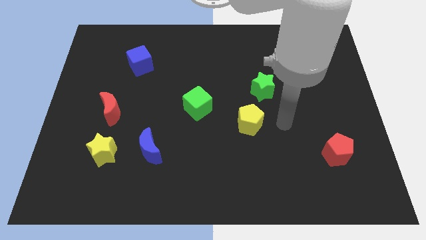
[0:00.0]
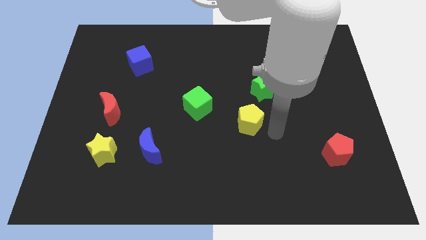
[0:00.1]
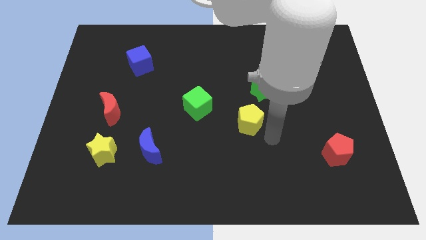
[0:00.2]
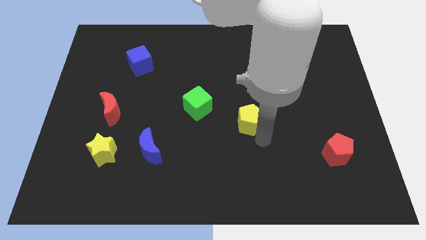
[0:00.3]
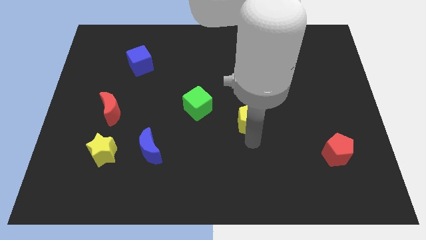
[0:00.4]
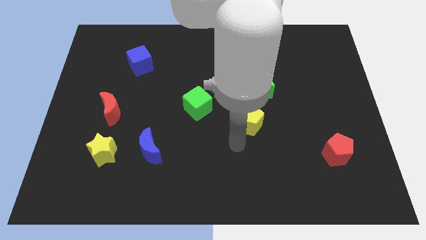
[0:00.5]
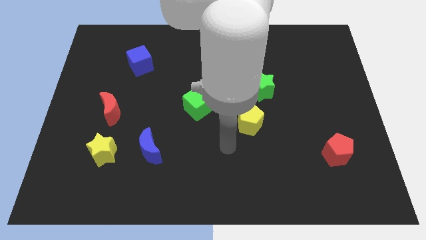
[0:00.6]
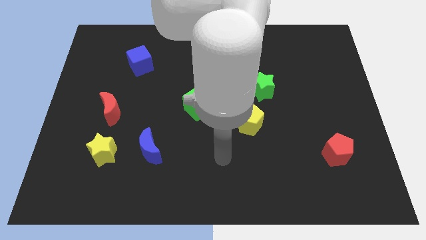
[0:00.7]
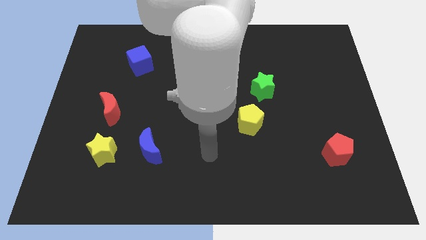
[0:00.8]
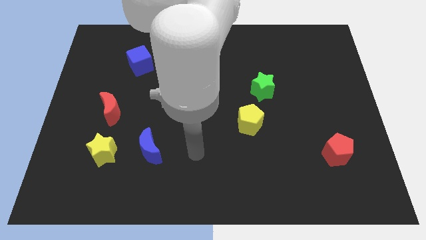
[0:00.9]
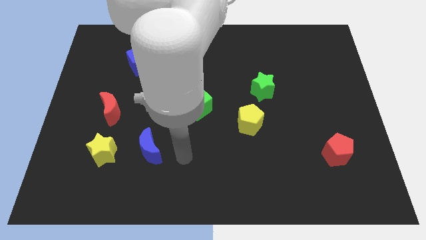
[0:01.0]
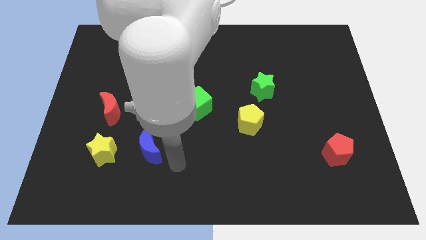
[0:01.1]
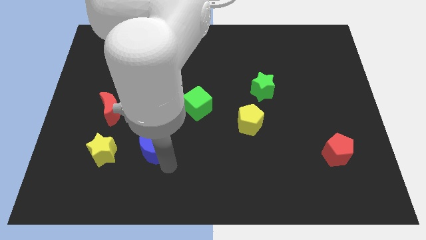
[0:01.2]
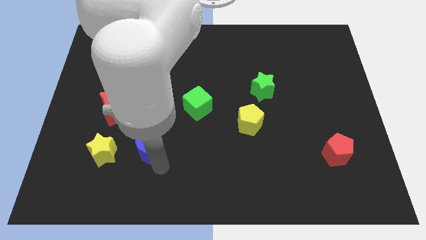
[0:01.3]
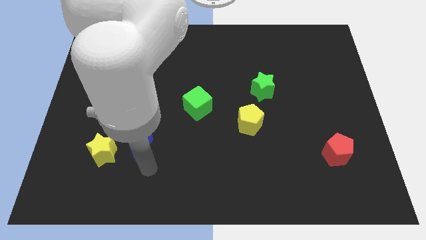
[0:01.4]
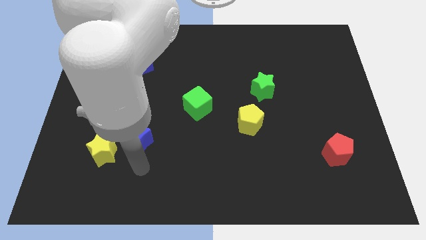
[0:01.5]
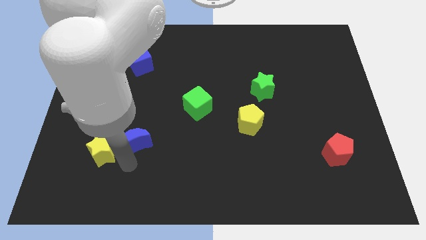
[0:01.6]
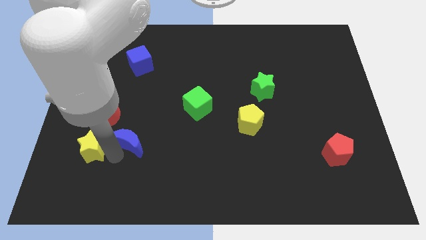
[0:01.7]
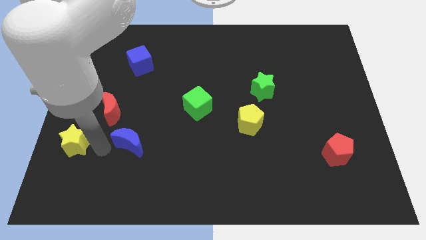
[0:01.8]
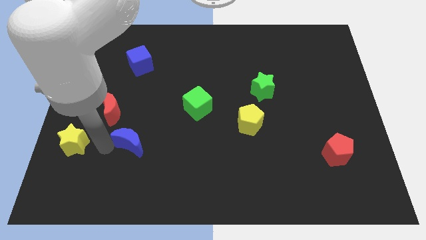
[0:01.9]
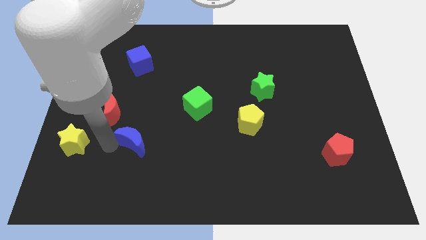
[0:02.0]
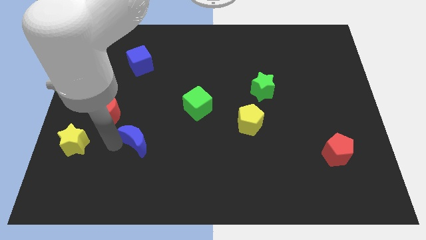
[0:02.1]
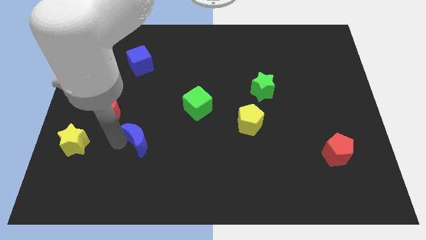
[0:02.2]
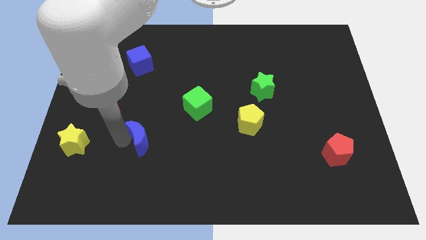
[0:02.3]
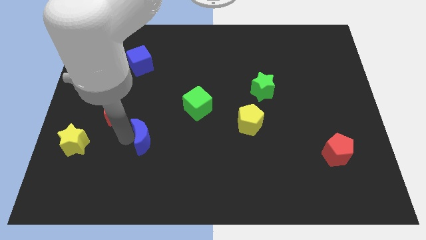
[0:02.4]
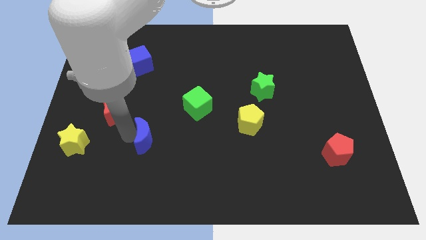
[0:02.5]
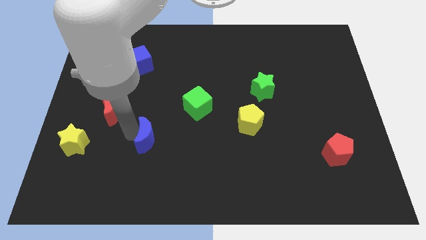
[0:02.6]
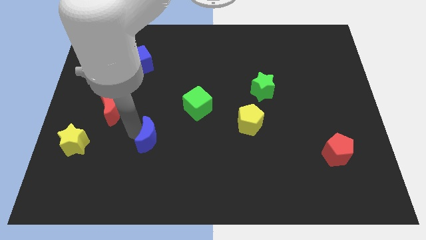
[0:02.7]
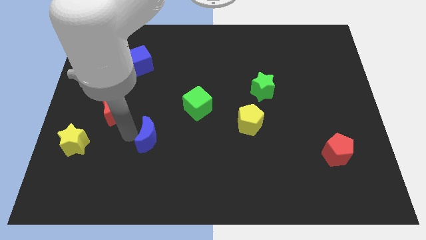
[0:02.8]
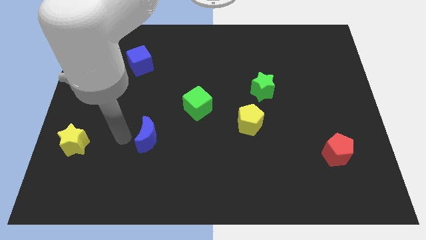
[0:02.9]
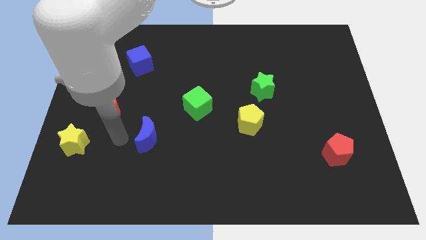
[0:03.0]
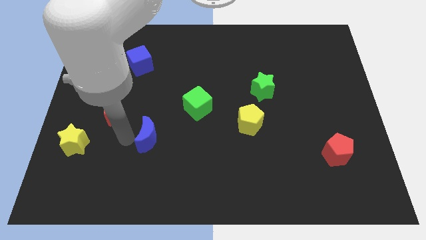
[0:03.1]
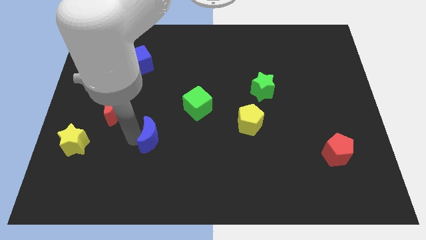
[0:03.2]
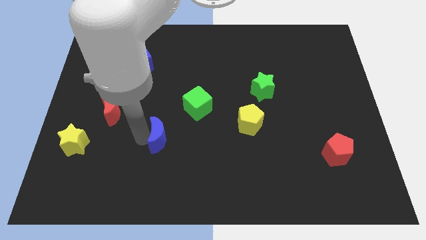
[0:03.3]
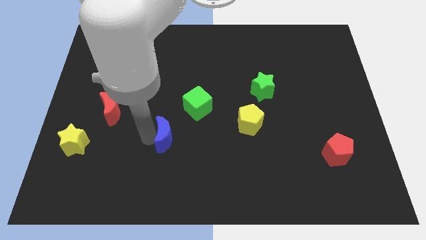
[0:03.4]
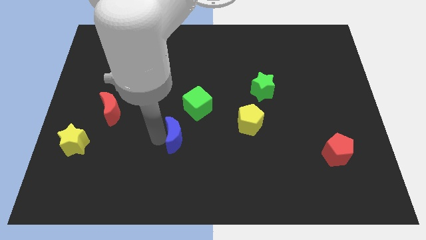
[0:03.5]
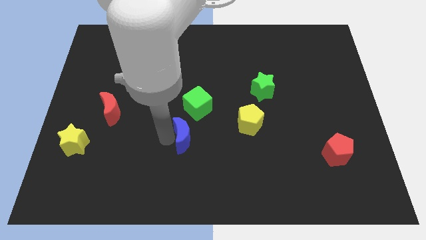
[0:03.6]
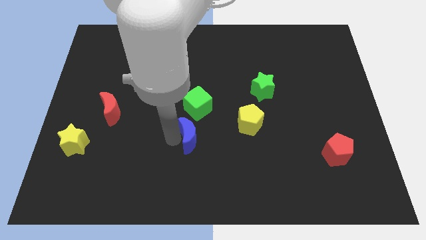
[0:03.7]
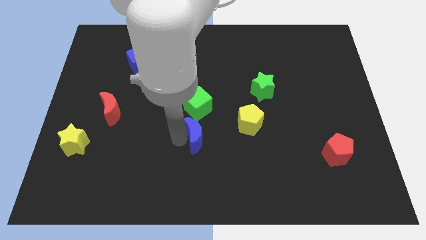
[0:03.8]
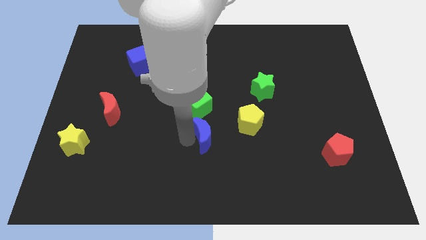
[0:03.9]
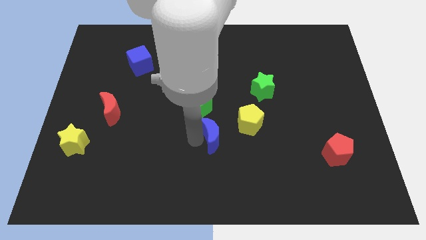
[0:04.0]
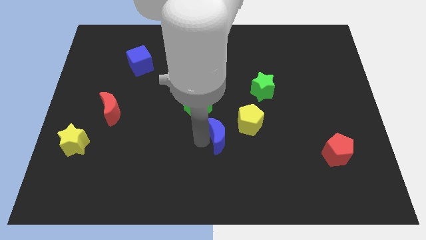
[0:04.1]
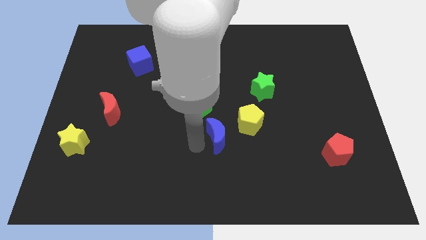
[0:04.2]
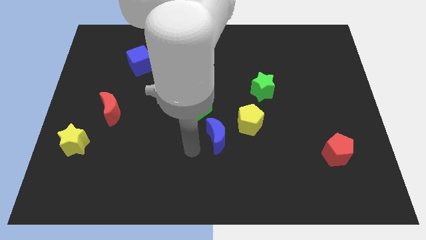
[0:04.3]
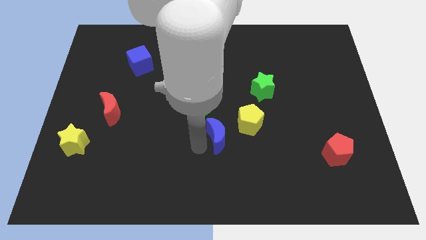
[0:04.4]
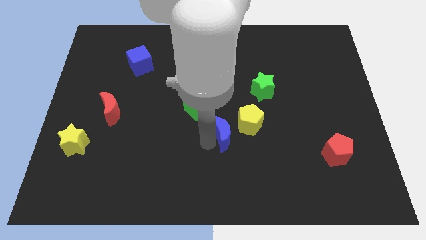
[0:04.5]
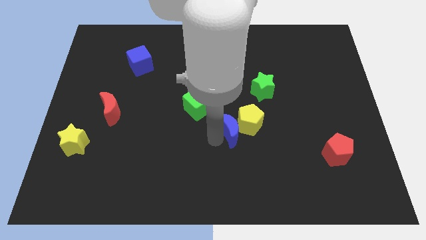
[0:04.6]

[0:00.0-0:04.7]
push the blue moon close to the yellow pentagon

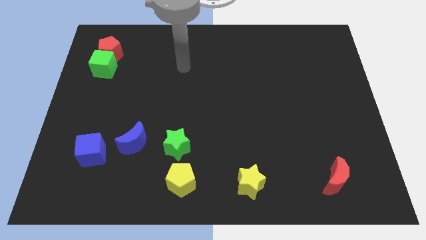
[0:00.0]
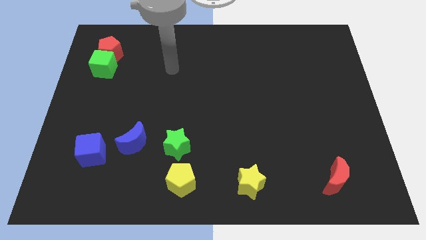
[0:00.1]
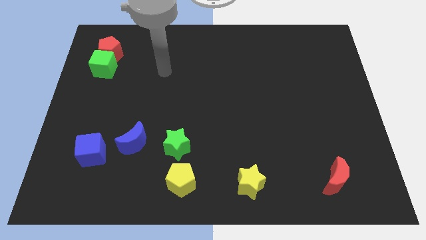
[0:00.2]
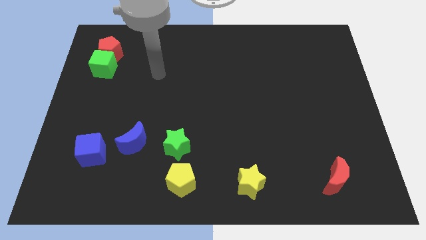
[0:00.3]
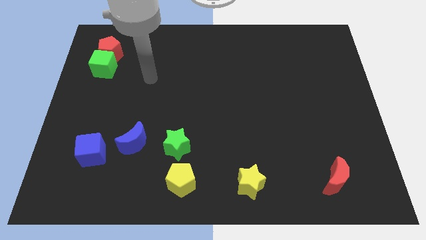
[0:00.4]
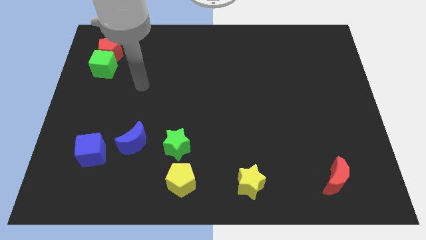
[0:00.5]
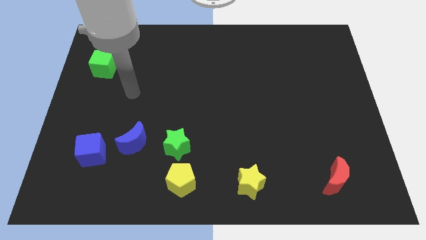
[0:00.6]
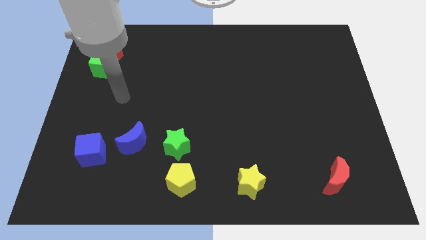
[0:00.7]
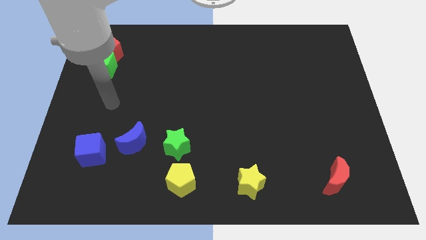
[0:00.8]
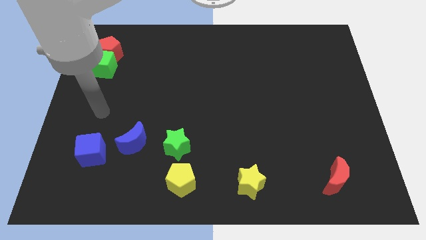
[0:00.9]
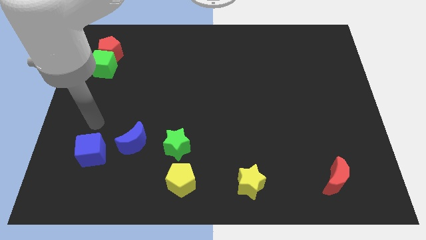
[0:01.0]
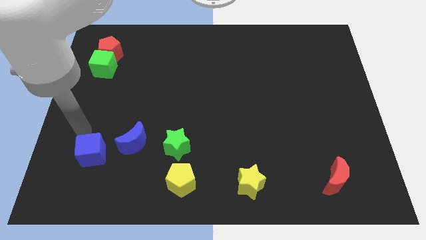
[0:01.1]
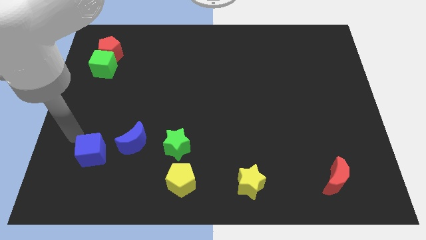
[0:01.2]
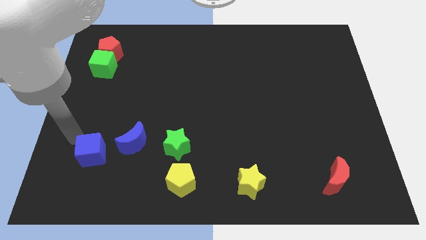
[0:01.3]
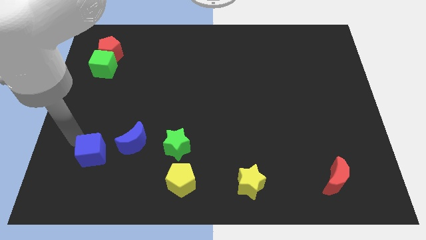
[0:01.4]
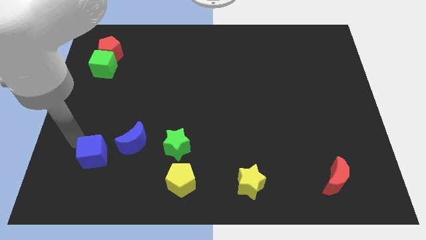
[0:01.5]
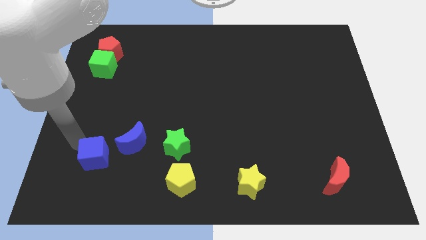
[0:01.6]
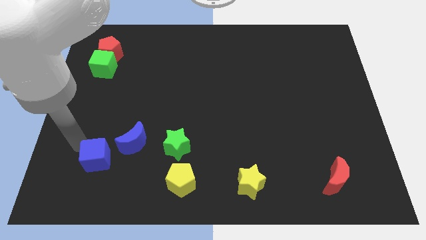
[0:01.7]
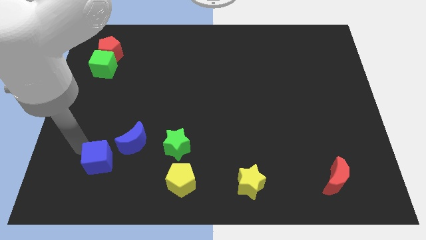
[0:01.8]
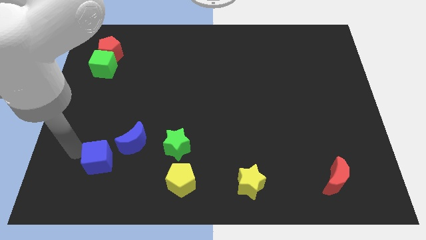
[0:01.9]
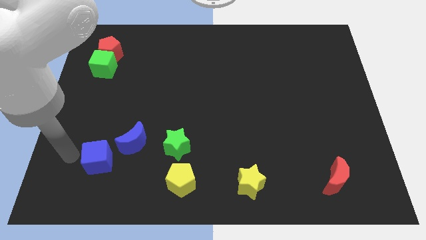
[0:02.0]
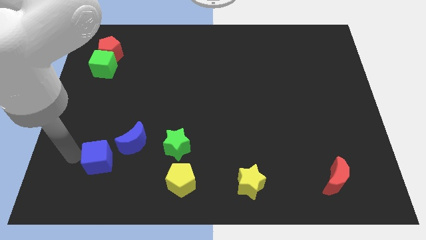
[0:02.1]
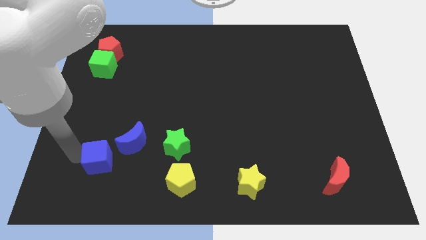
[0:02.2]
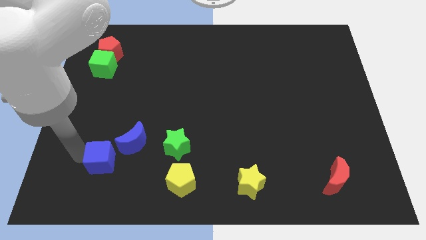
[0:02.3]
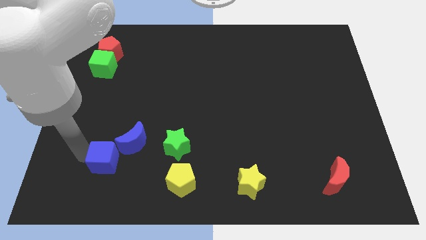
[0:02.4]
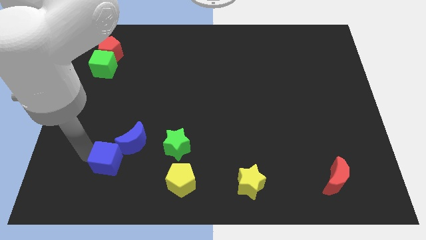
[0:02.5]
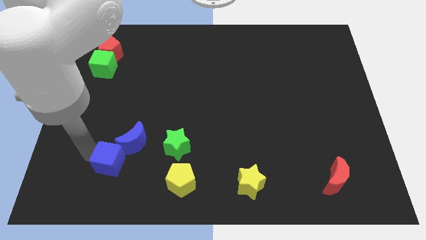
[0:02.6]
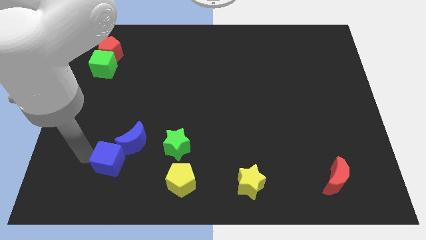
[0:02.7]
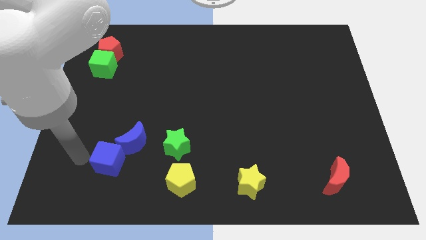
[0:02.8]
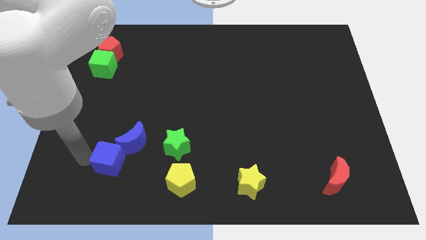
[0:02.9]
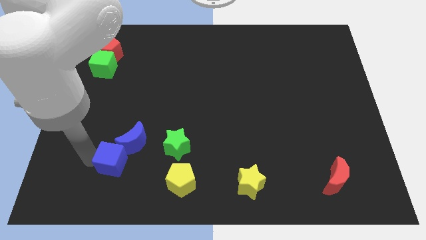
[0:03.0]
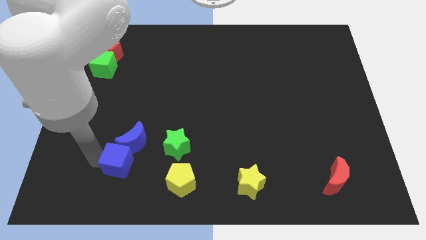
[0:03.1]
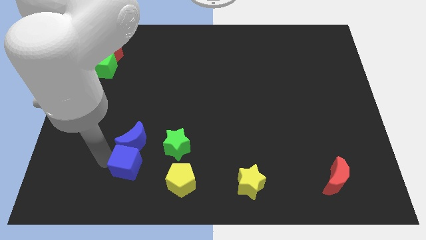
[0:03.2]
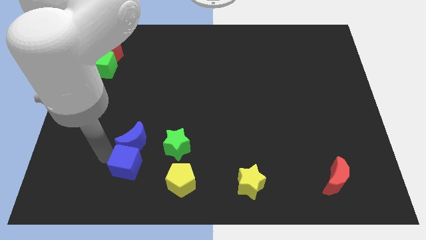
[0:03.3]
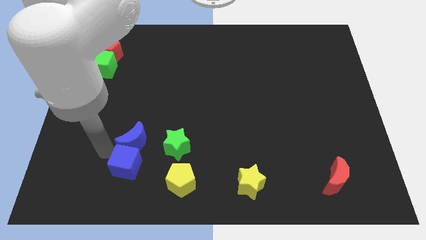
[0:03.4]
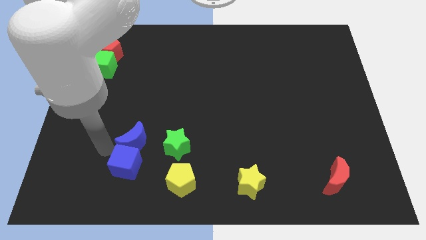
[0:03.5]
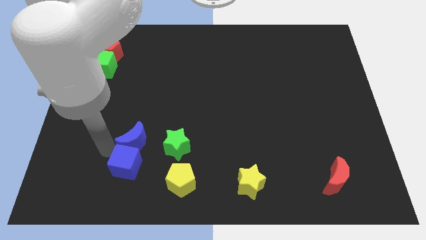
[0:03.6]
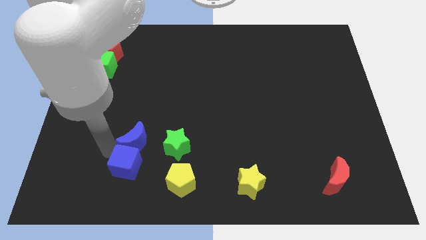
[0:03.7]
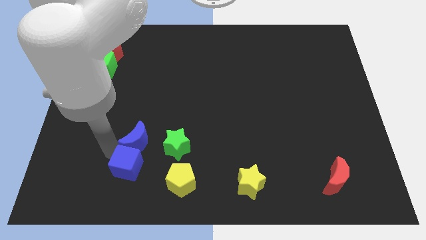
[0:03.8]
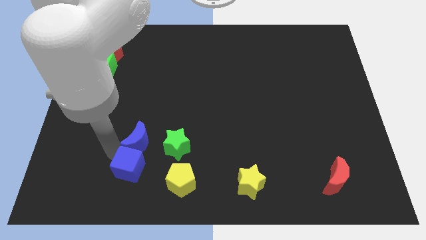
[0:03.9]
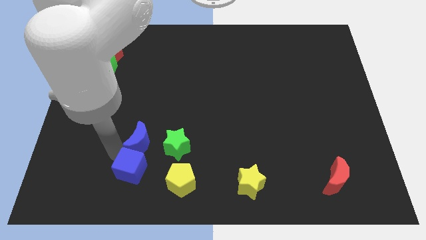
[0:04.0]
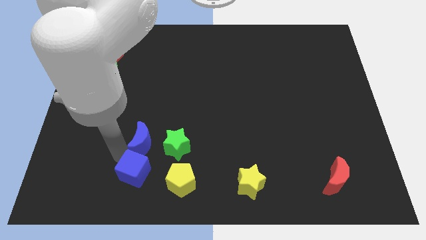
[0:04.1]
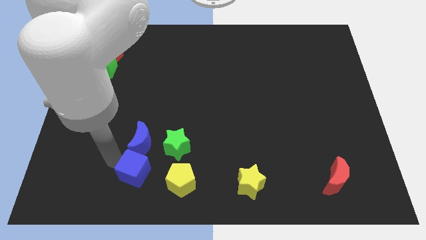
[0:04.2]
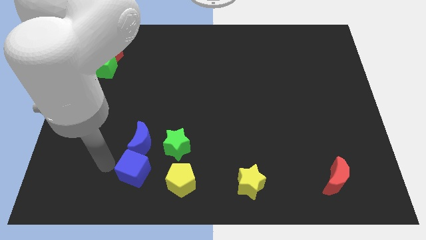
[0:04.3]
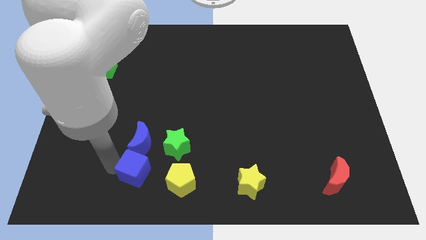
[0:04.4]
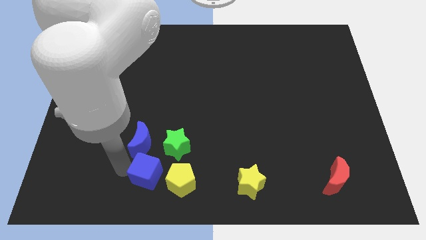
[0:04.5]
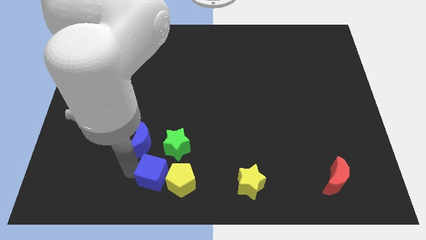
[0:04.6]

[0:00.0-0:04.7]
put the blue cube towards the yellow pentagon
